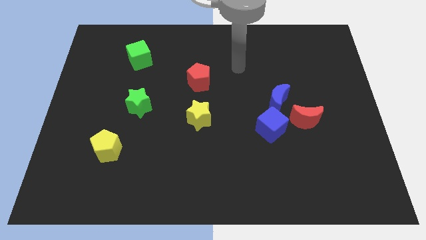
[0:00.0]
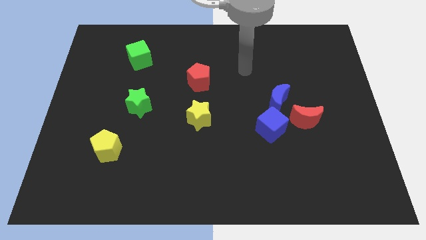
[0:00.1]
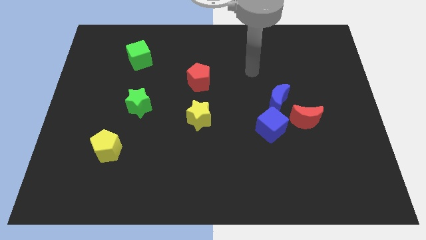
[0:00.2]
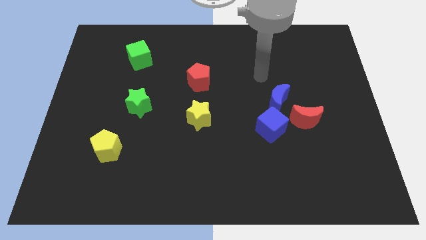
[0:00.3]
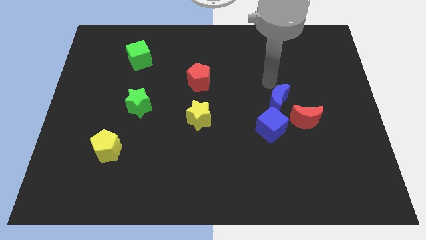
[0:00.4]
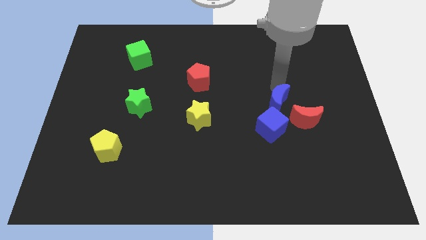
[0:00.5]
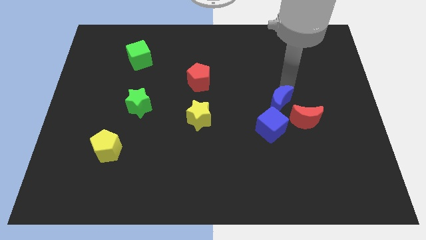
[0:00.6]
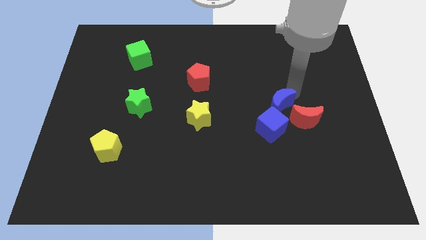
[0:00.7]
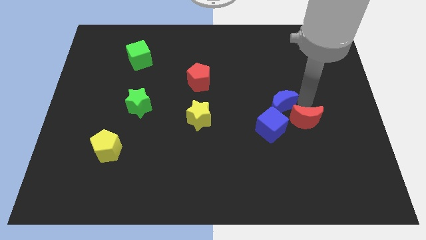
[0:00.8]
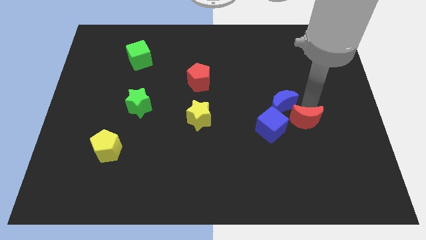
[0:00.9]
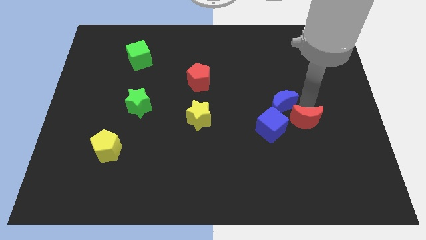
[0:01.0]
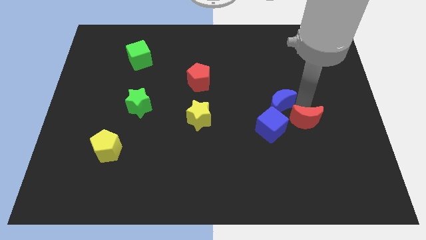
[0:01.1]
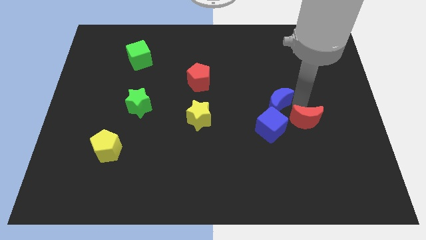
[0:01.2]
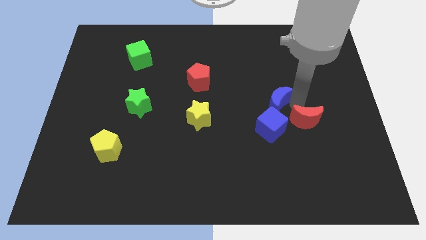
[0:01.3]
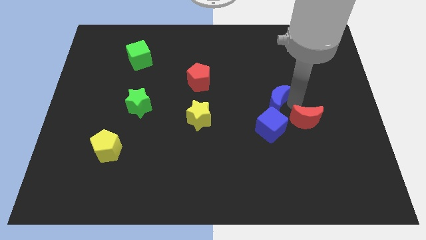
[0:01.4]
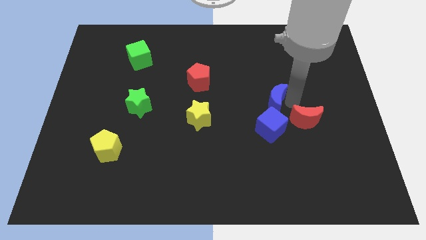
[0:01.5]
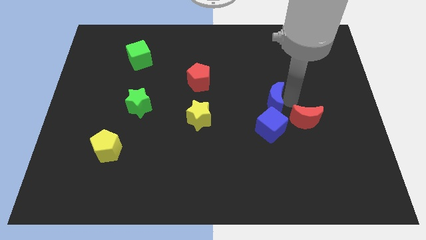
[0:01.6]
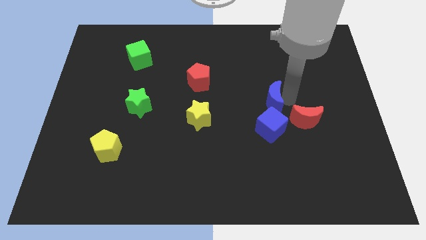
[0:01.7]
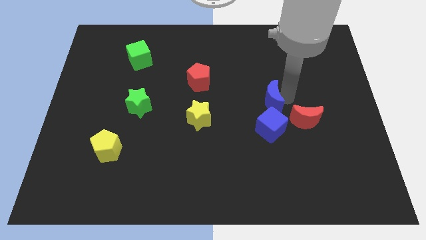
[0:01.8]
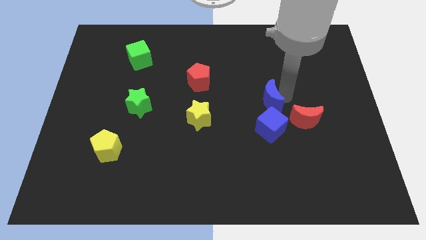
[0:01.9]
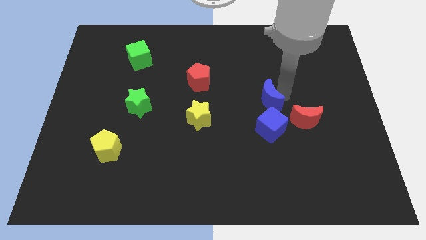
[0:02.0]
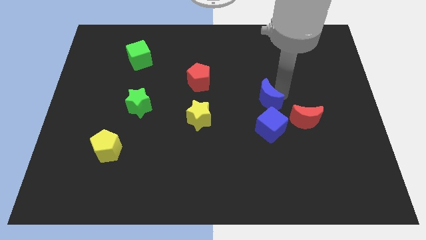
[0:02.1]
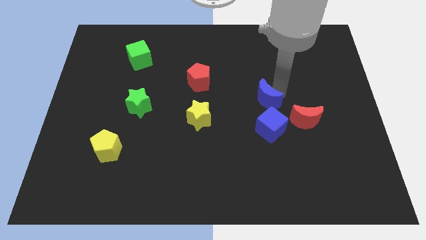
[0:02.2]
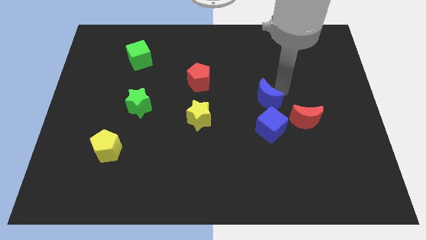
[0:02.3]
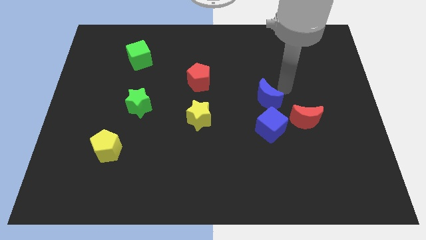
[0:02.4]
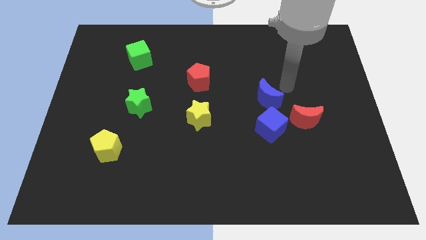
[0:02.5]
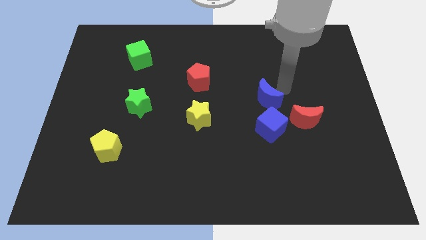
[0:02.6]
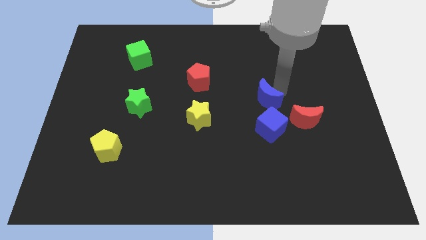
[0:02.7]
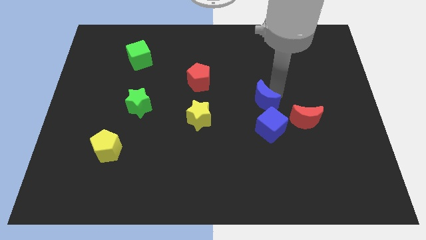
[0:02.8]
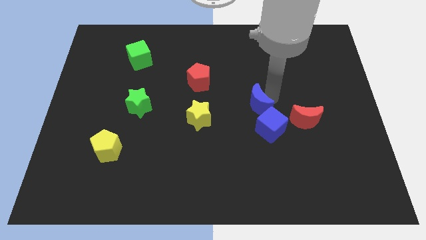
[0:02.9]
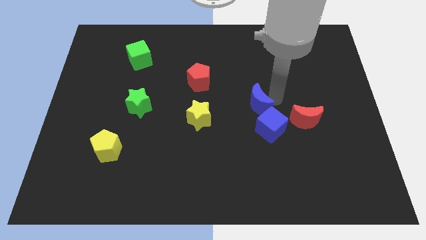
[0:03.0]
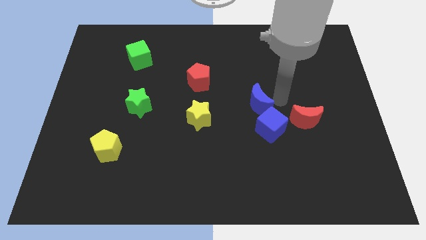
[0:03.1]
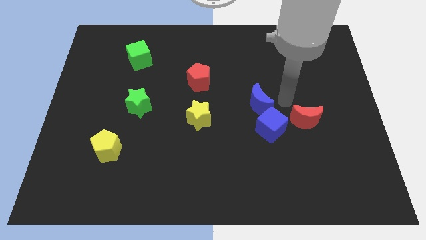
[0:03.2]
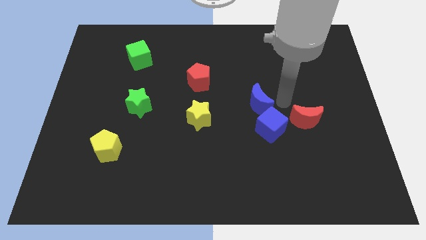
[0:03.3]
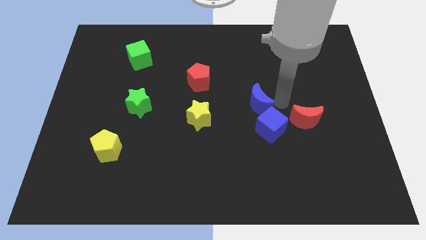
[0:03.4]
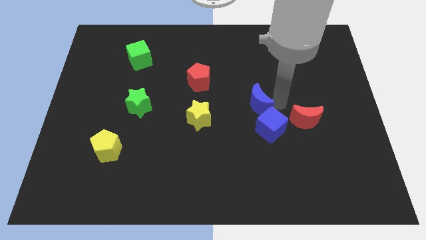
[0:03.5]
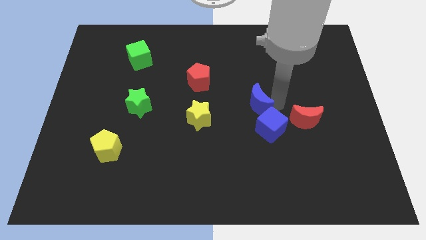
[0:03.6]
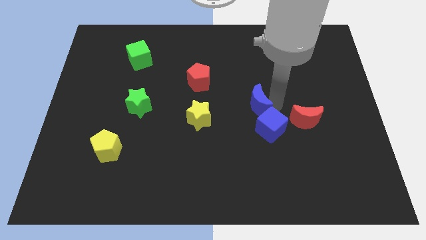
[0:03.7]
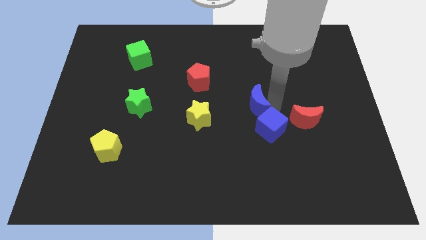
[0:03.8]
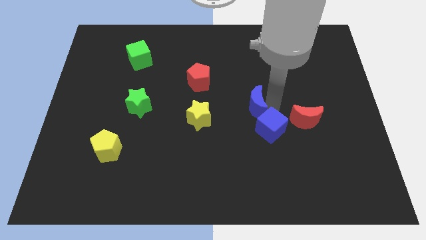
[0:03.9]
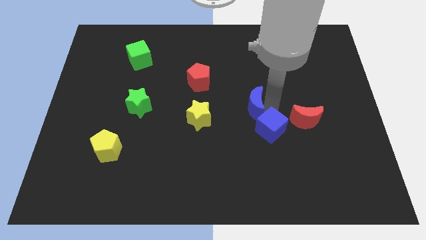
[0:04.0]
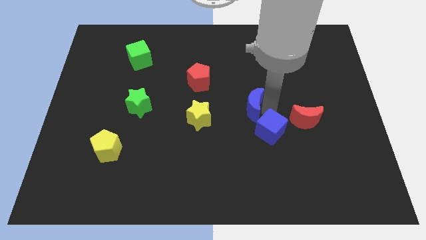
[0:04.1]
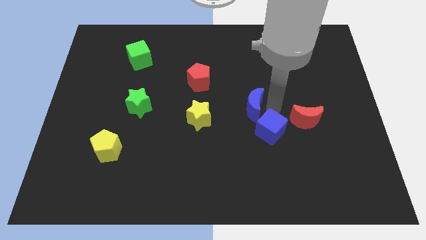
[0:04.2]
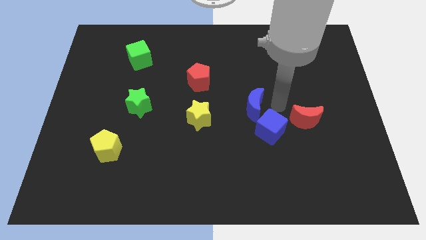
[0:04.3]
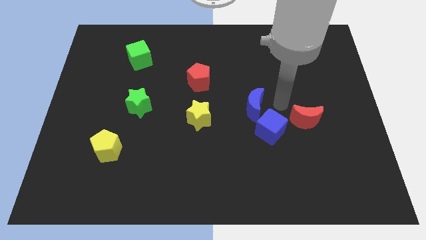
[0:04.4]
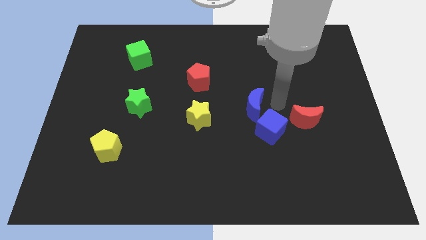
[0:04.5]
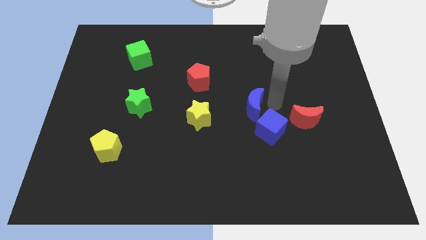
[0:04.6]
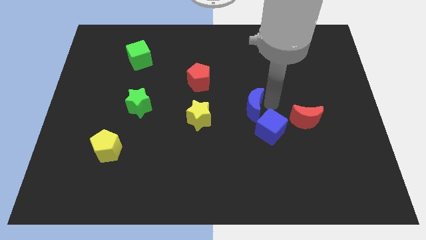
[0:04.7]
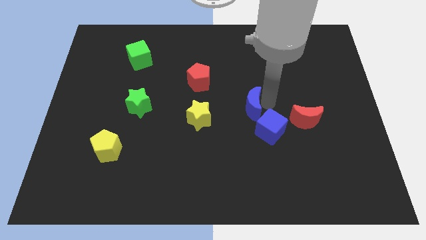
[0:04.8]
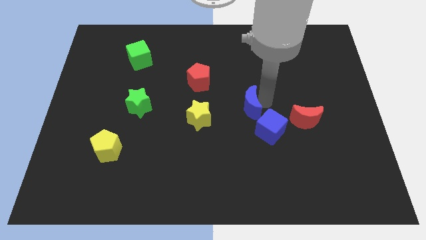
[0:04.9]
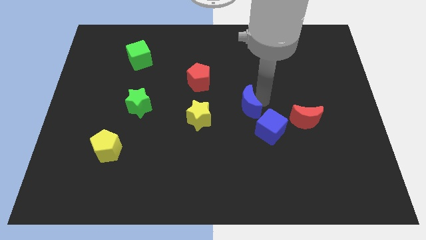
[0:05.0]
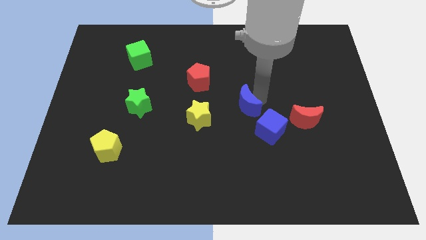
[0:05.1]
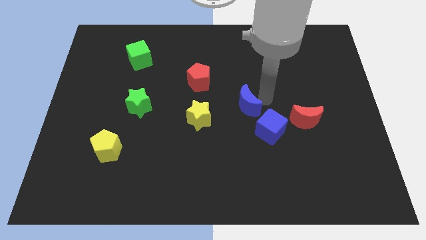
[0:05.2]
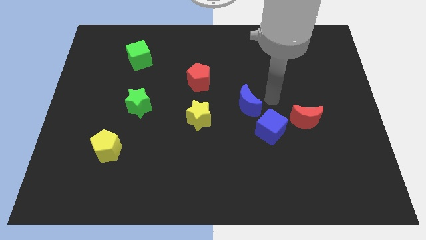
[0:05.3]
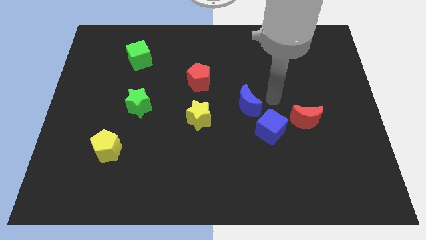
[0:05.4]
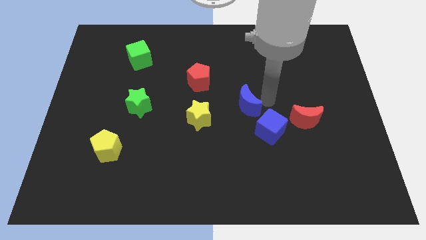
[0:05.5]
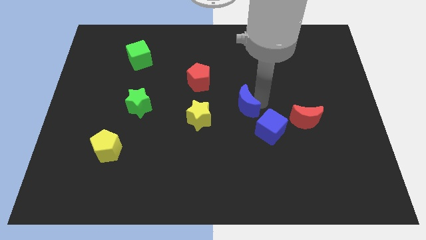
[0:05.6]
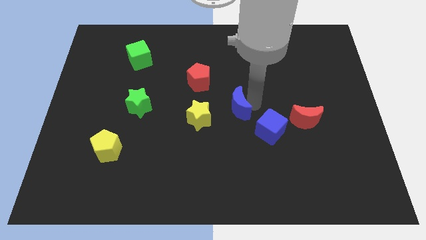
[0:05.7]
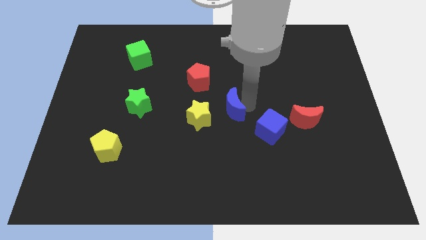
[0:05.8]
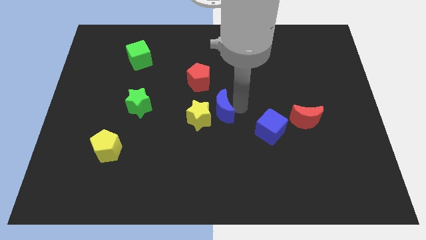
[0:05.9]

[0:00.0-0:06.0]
push the blue moon next to the yellow star

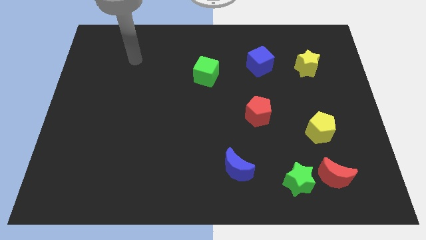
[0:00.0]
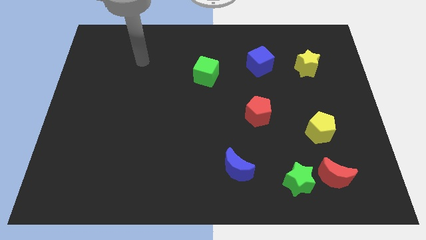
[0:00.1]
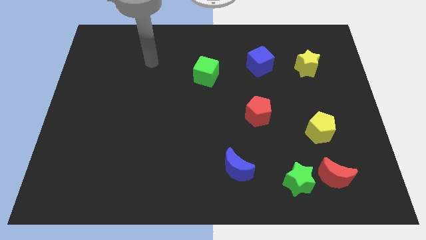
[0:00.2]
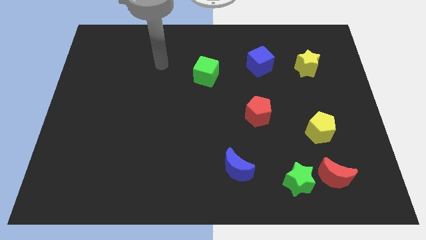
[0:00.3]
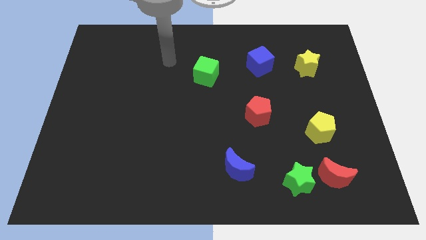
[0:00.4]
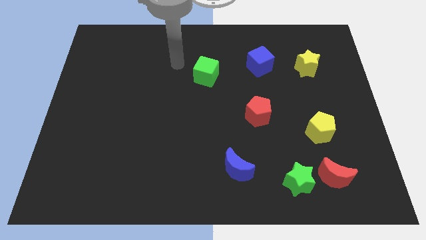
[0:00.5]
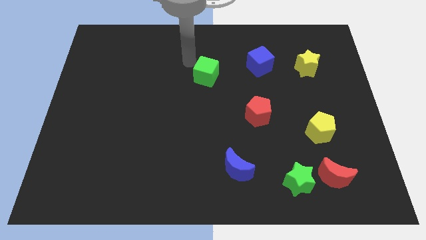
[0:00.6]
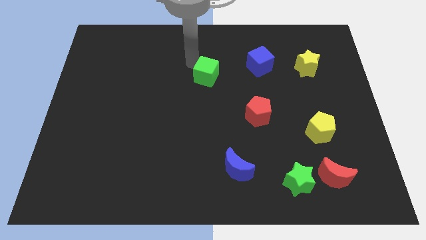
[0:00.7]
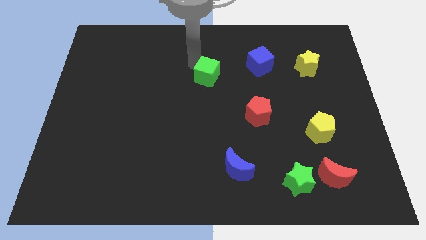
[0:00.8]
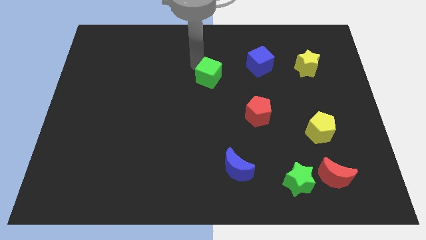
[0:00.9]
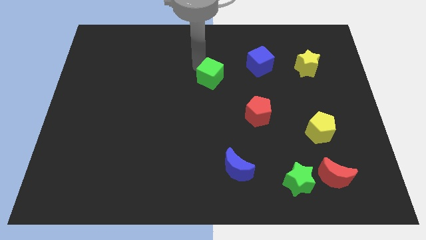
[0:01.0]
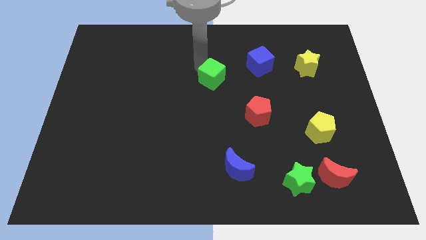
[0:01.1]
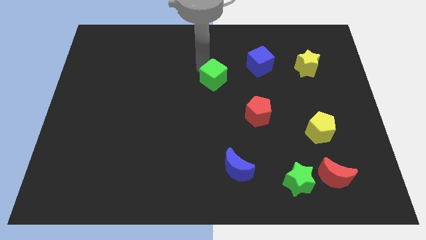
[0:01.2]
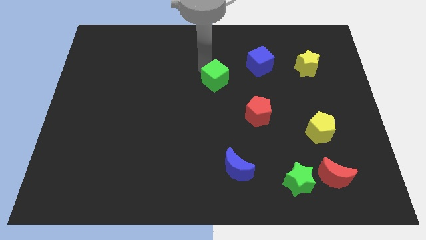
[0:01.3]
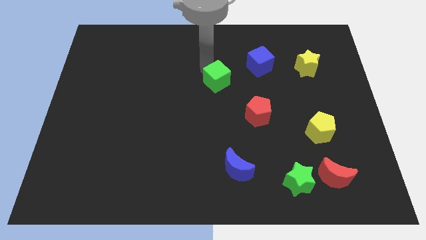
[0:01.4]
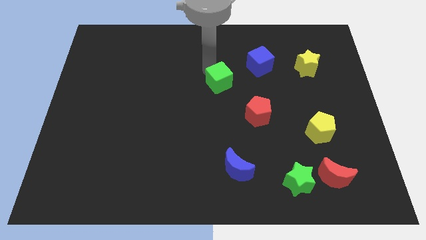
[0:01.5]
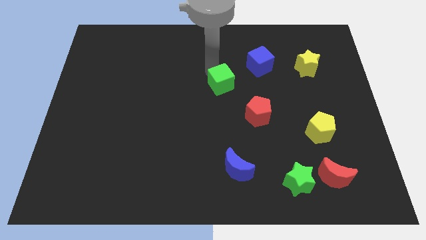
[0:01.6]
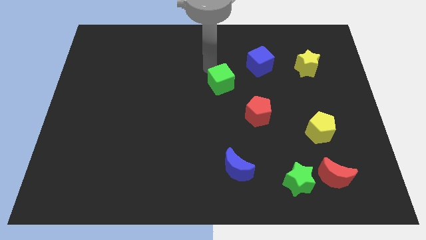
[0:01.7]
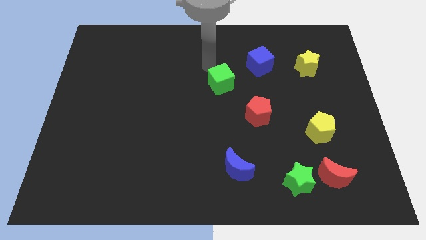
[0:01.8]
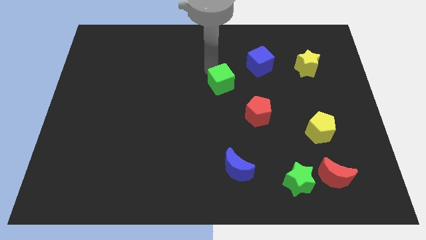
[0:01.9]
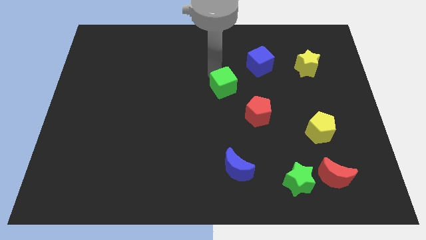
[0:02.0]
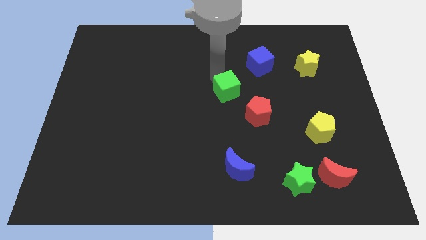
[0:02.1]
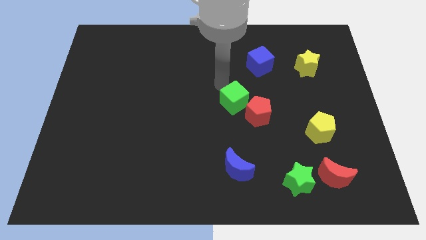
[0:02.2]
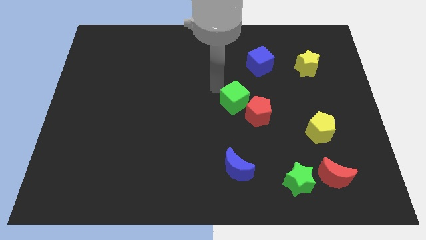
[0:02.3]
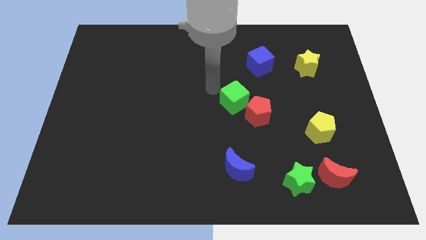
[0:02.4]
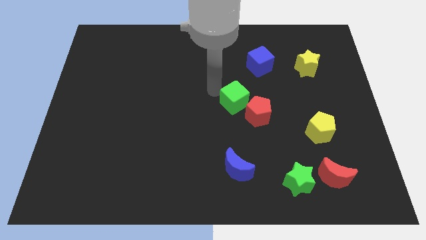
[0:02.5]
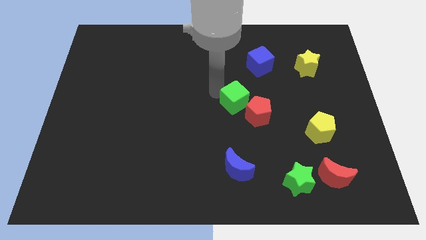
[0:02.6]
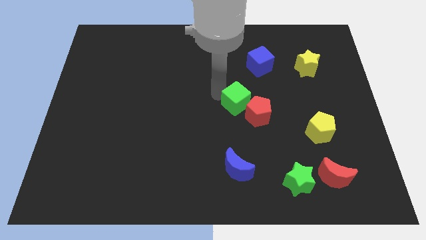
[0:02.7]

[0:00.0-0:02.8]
put the green cube towards the red pentagon
